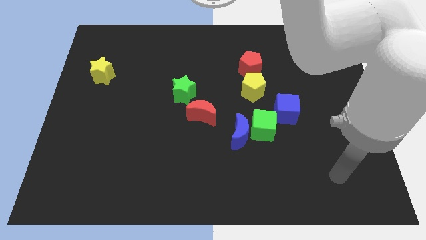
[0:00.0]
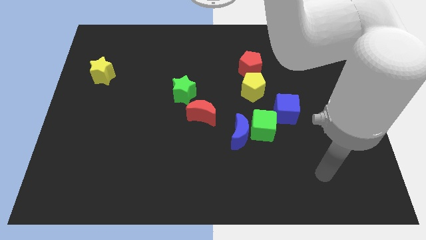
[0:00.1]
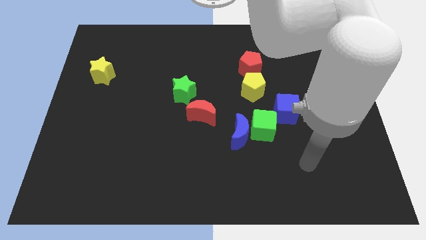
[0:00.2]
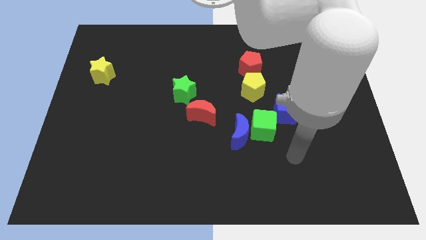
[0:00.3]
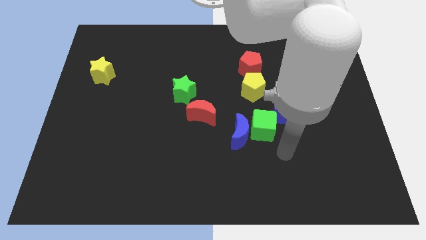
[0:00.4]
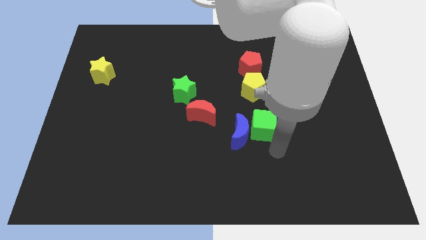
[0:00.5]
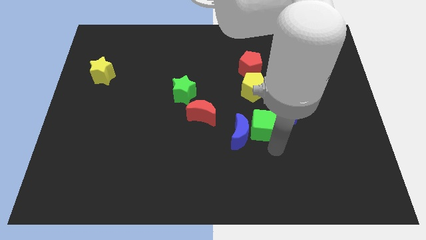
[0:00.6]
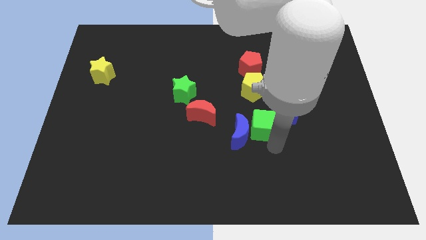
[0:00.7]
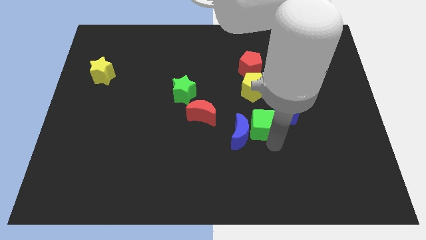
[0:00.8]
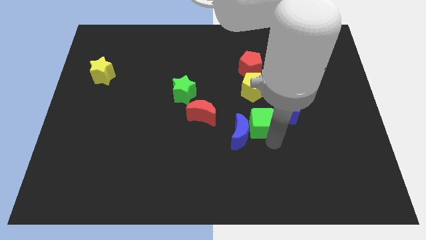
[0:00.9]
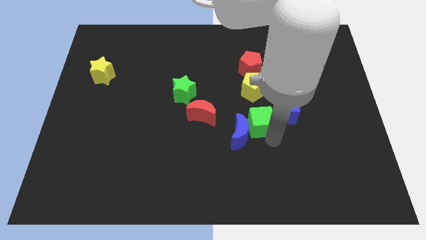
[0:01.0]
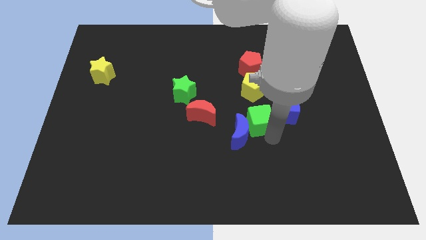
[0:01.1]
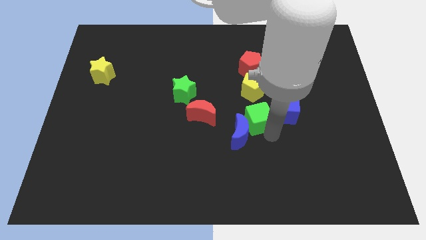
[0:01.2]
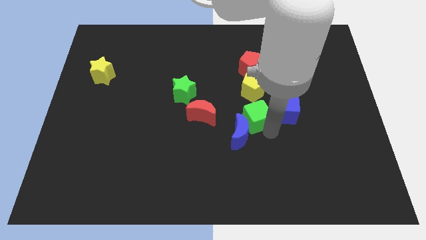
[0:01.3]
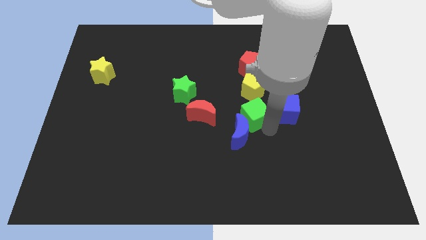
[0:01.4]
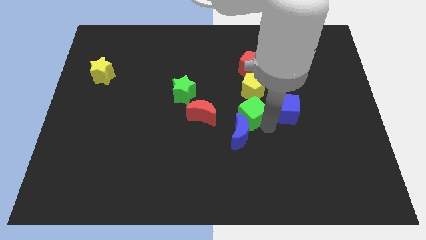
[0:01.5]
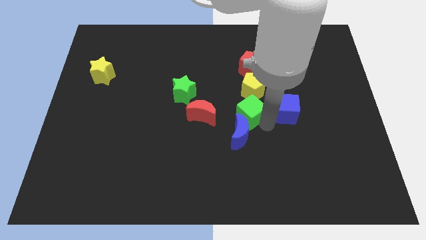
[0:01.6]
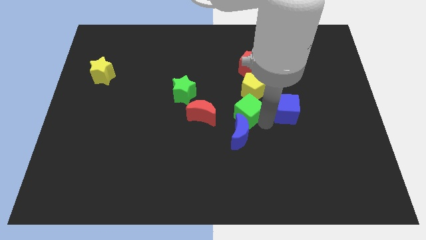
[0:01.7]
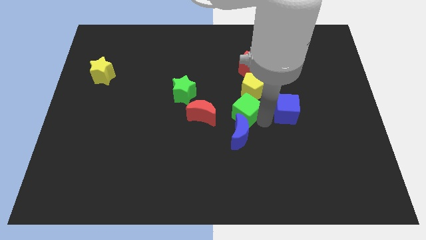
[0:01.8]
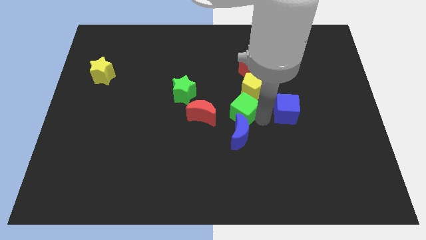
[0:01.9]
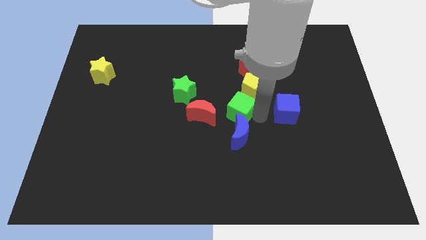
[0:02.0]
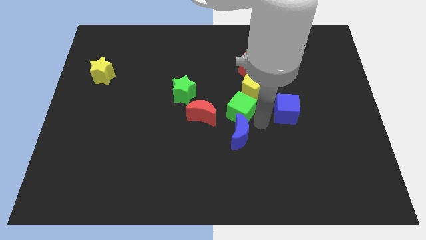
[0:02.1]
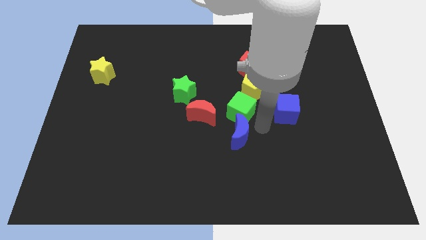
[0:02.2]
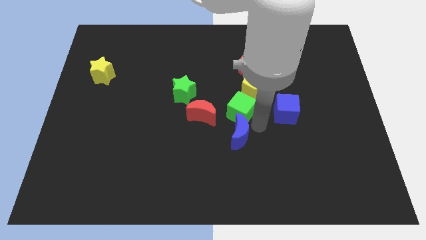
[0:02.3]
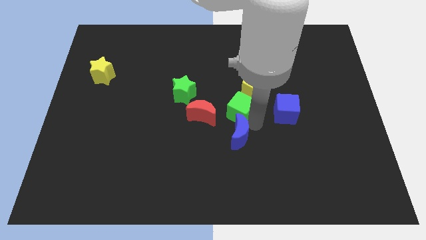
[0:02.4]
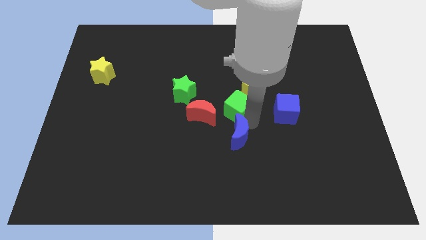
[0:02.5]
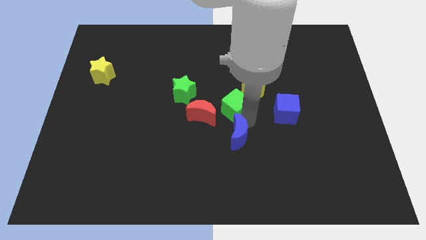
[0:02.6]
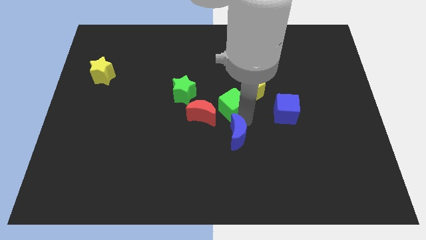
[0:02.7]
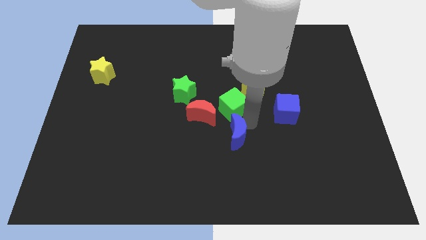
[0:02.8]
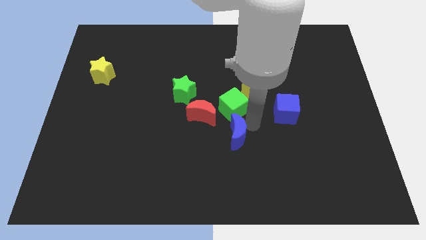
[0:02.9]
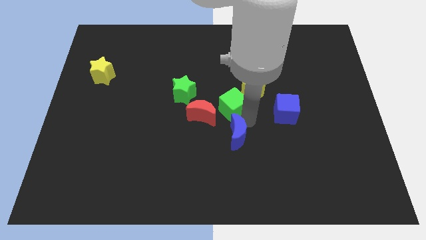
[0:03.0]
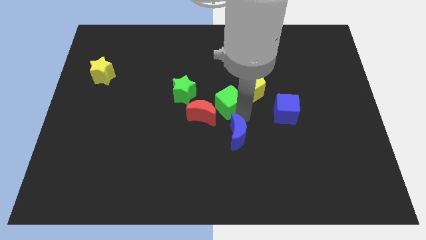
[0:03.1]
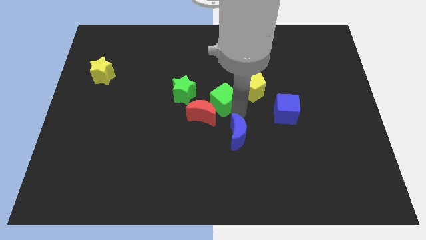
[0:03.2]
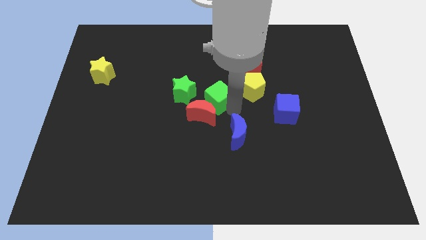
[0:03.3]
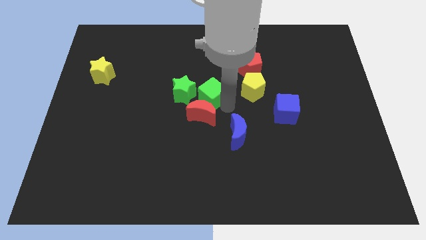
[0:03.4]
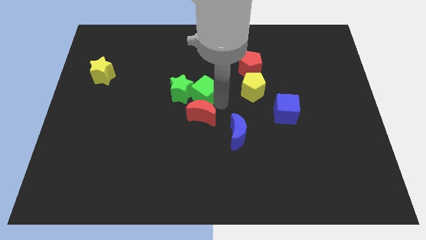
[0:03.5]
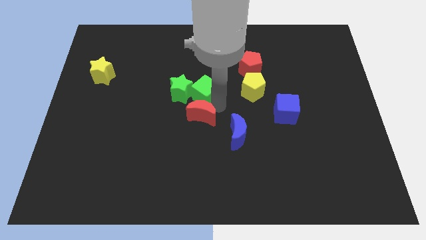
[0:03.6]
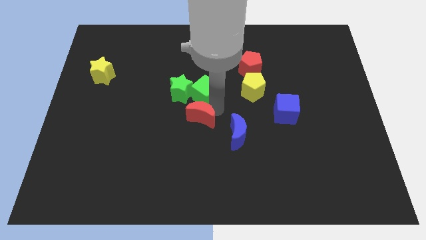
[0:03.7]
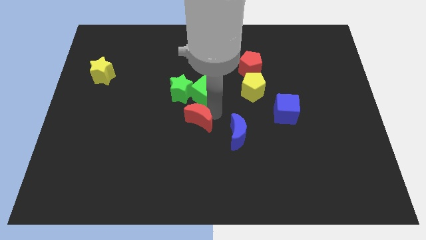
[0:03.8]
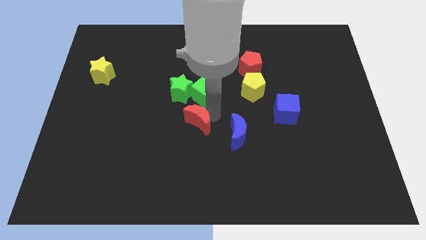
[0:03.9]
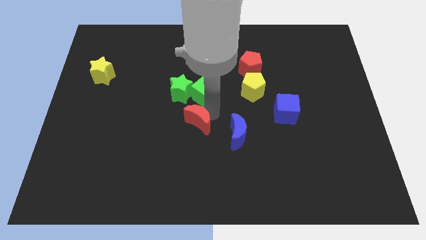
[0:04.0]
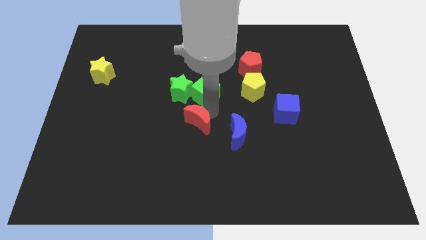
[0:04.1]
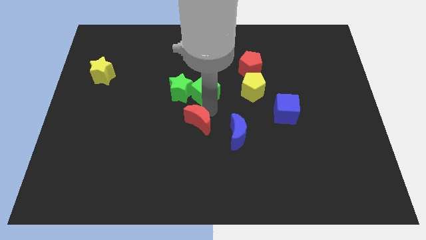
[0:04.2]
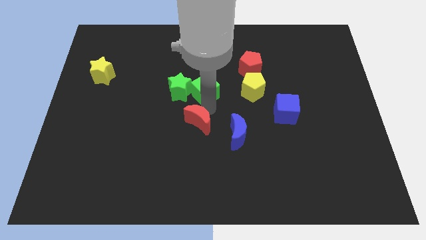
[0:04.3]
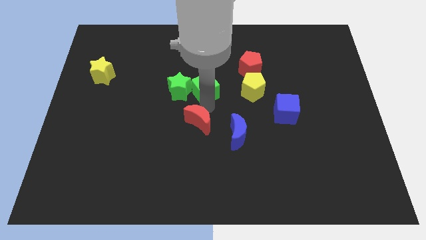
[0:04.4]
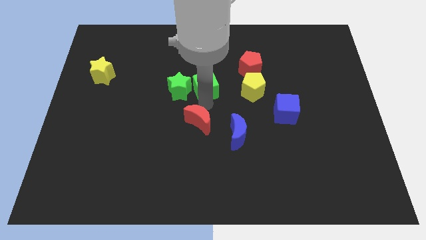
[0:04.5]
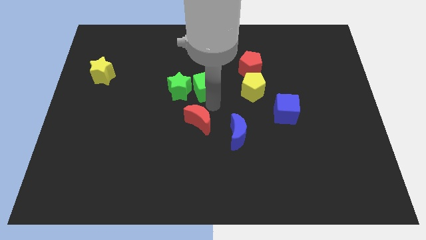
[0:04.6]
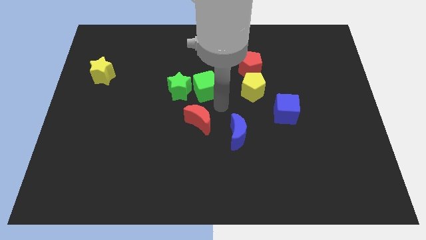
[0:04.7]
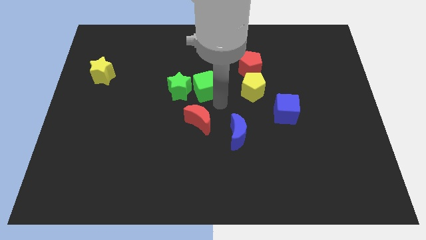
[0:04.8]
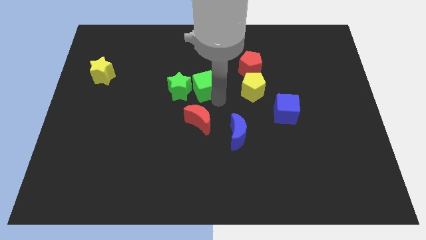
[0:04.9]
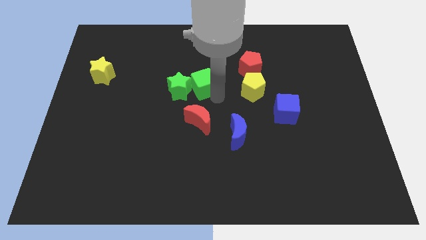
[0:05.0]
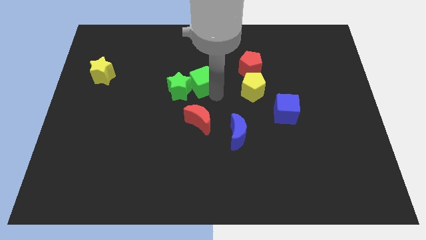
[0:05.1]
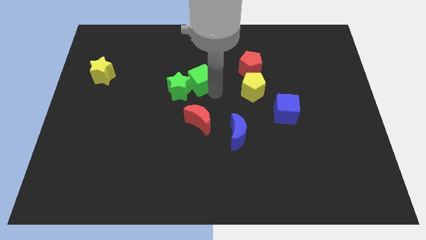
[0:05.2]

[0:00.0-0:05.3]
move the green cube up and to the left diagonally

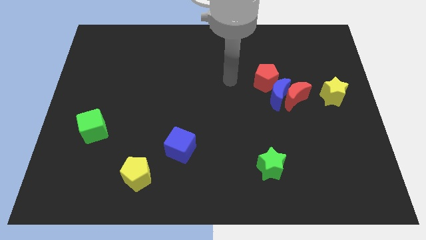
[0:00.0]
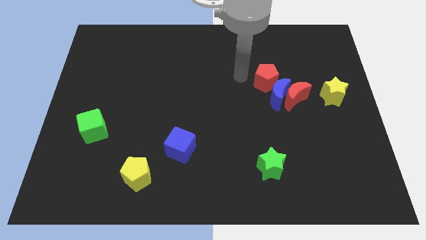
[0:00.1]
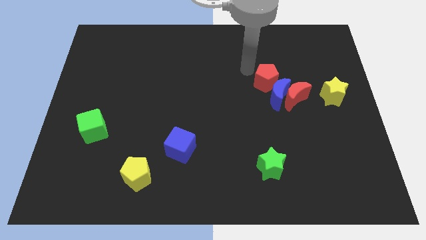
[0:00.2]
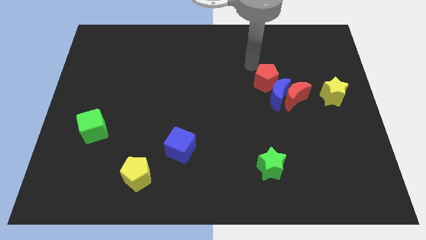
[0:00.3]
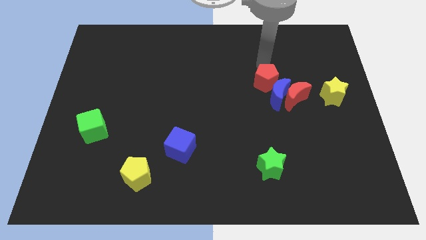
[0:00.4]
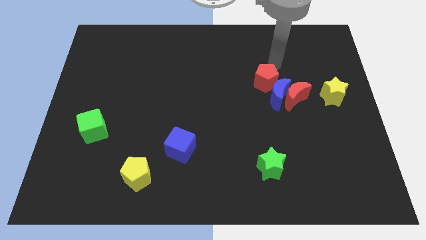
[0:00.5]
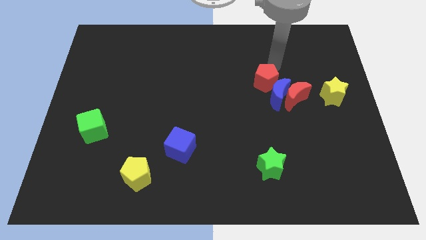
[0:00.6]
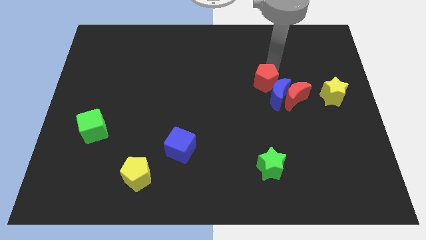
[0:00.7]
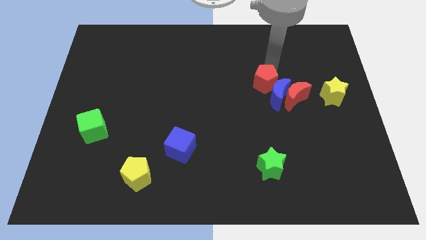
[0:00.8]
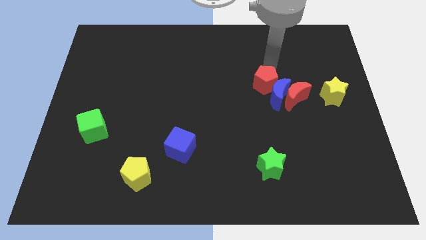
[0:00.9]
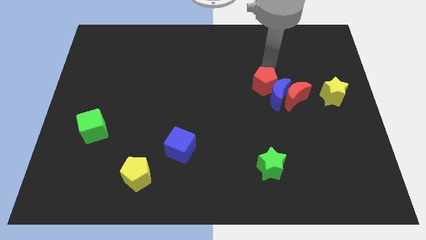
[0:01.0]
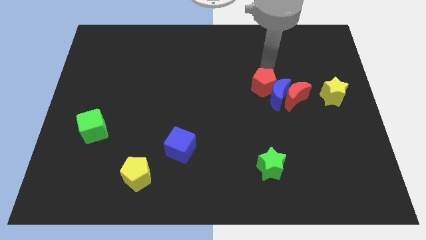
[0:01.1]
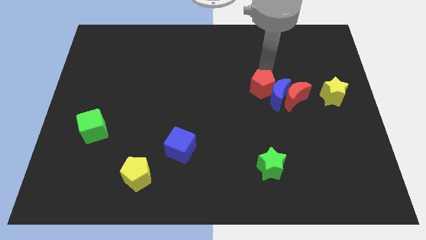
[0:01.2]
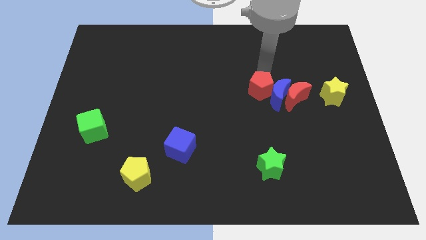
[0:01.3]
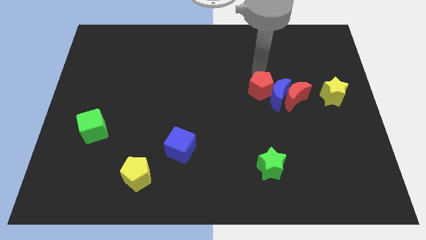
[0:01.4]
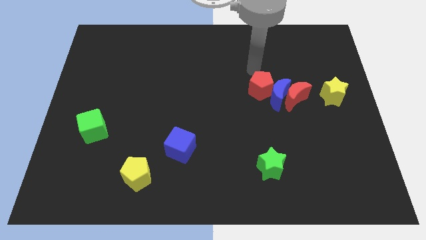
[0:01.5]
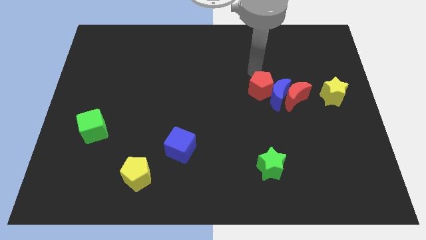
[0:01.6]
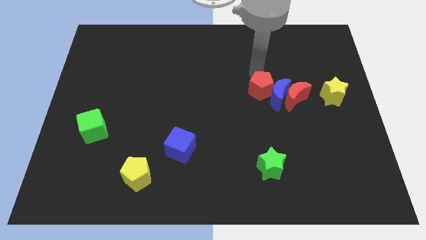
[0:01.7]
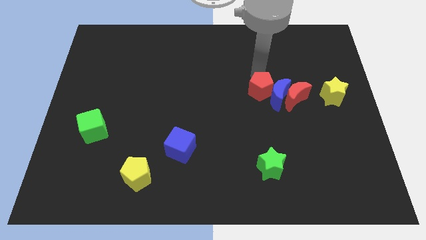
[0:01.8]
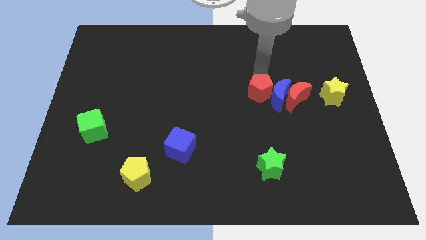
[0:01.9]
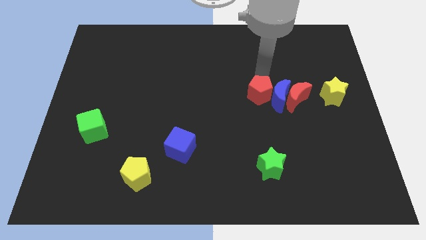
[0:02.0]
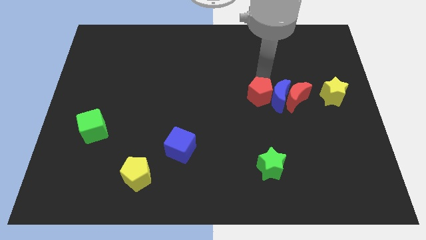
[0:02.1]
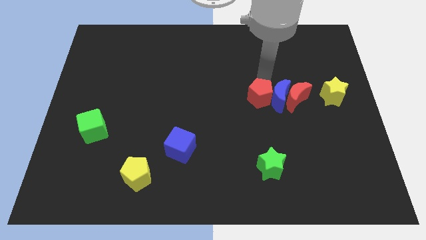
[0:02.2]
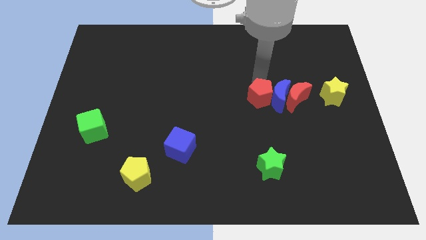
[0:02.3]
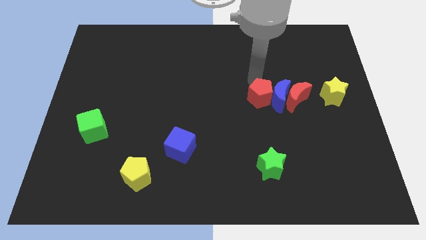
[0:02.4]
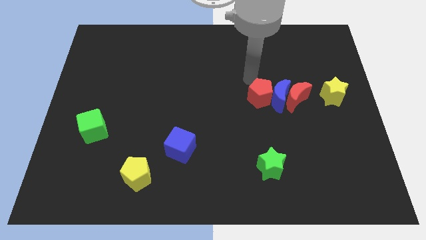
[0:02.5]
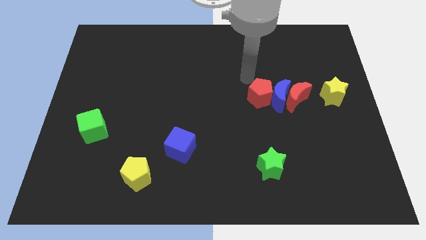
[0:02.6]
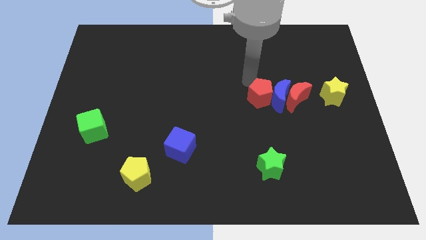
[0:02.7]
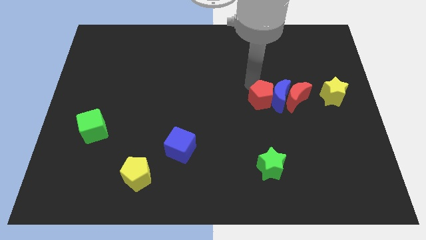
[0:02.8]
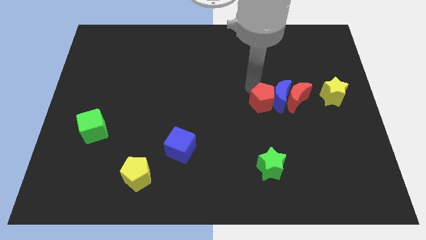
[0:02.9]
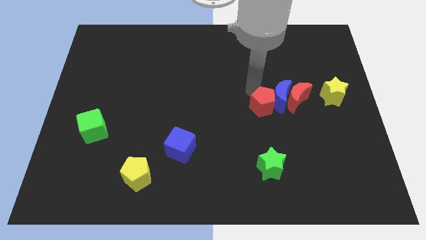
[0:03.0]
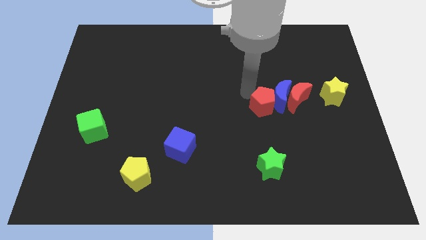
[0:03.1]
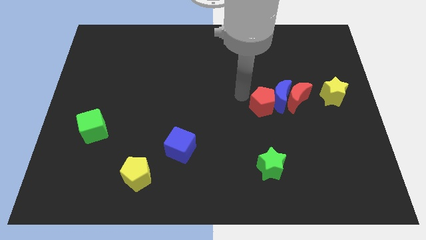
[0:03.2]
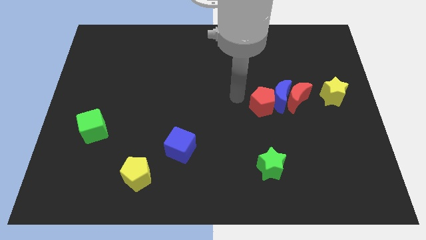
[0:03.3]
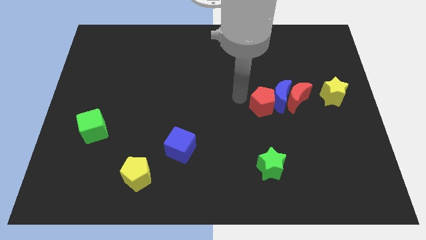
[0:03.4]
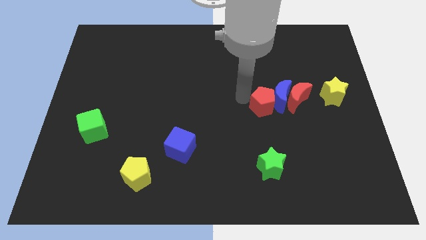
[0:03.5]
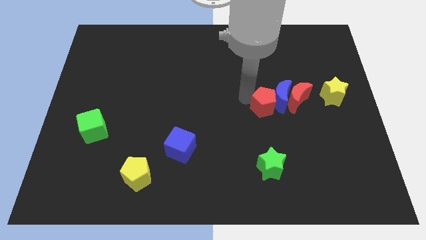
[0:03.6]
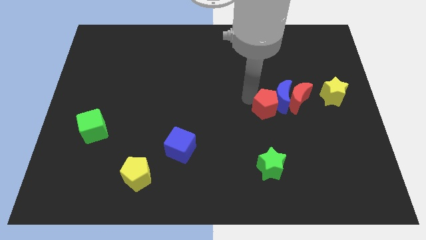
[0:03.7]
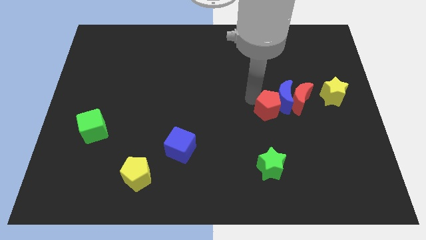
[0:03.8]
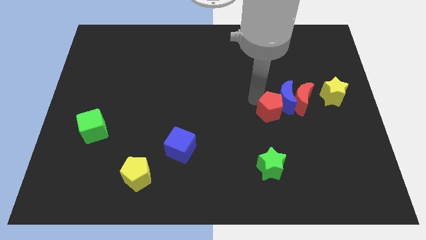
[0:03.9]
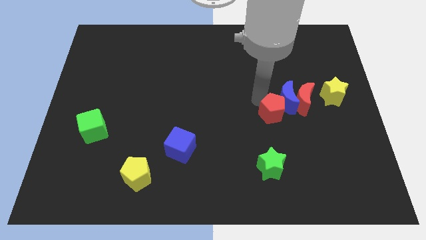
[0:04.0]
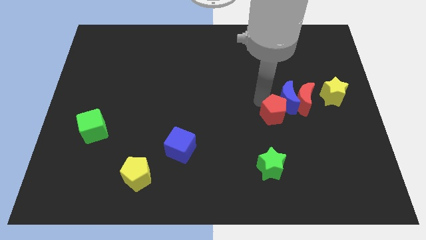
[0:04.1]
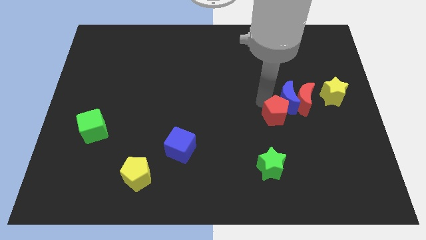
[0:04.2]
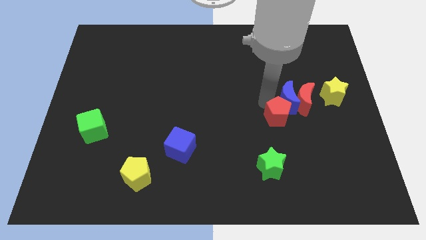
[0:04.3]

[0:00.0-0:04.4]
slightly move the red pentagon down and then to the right
